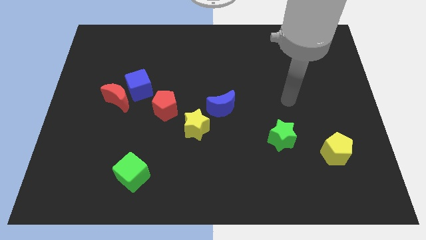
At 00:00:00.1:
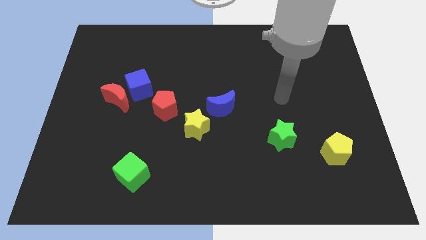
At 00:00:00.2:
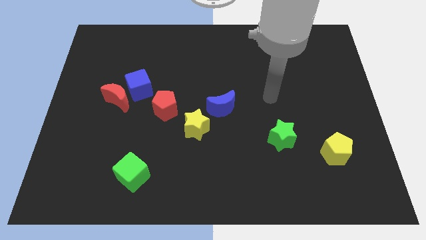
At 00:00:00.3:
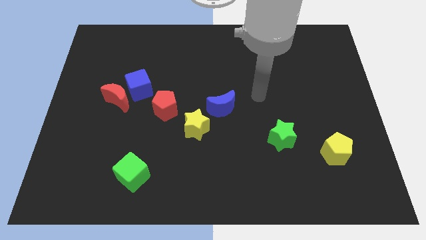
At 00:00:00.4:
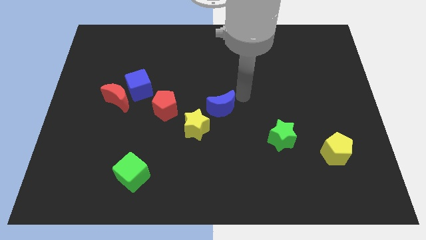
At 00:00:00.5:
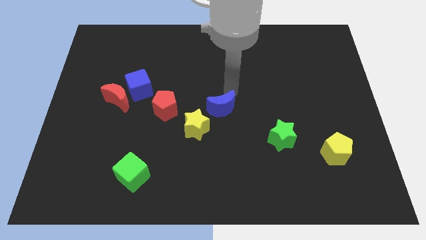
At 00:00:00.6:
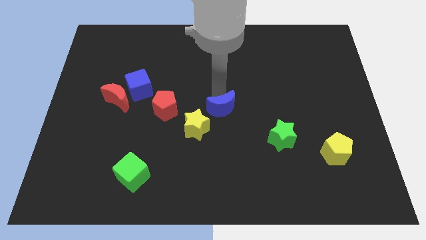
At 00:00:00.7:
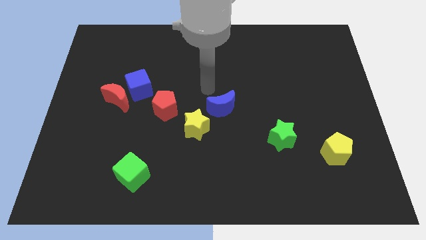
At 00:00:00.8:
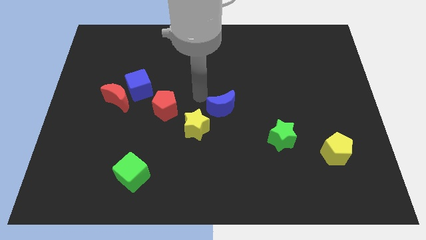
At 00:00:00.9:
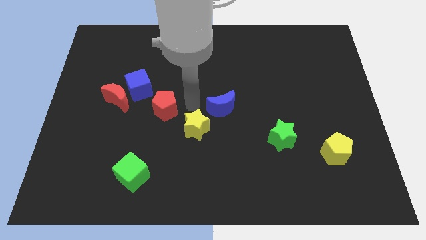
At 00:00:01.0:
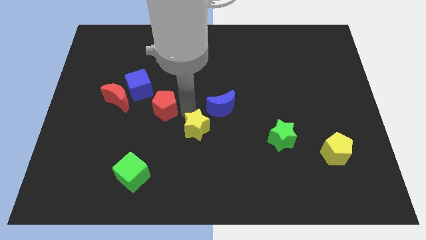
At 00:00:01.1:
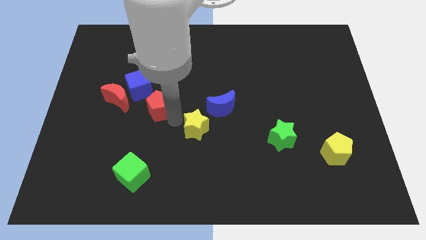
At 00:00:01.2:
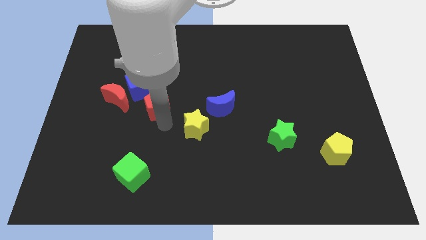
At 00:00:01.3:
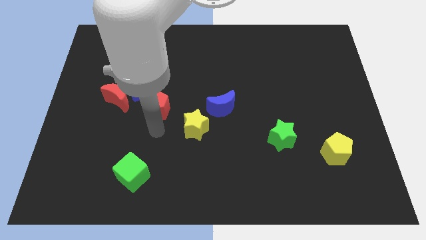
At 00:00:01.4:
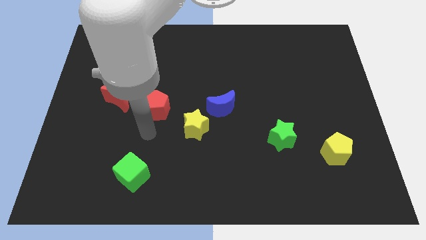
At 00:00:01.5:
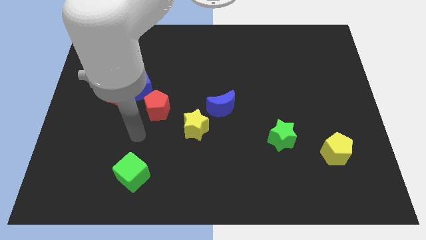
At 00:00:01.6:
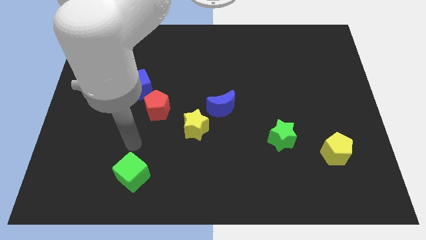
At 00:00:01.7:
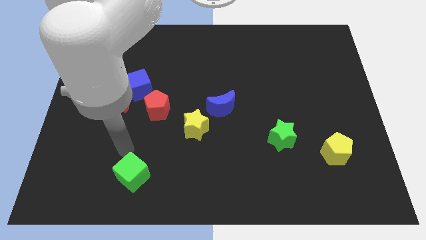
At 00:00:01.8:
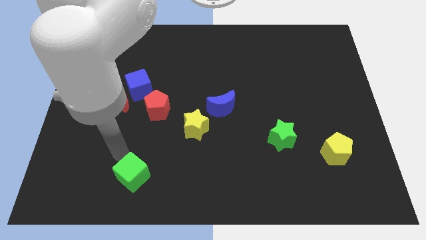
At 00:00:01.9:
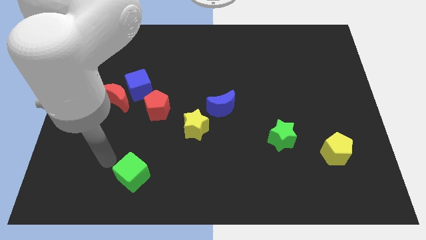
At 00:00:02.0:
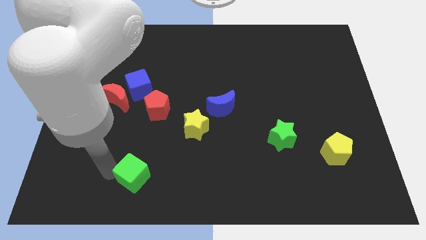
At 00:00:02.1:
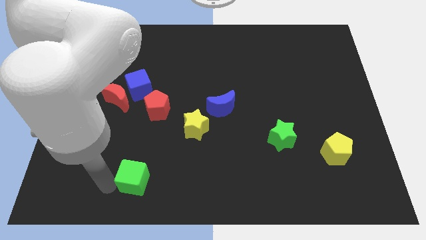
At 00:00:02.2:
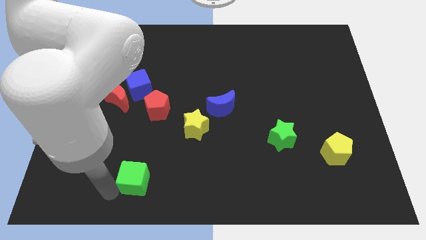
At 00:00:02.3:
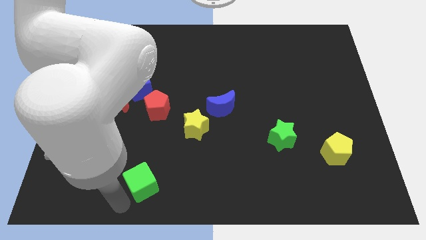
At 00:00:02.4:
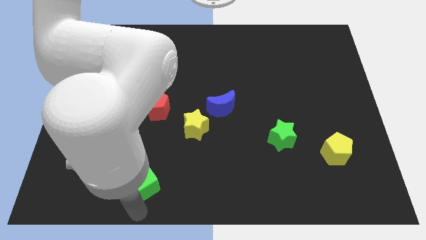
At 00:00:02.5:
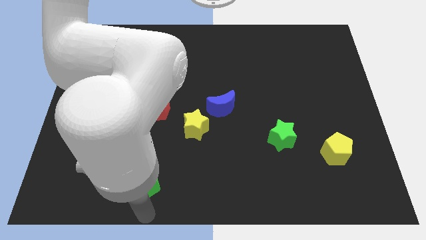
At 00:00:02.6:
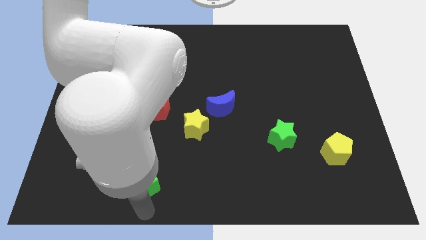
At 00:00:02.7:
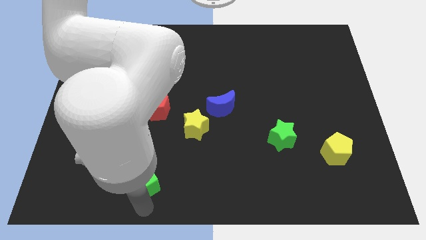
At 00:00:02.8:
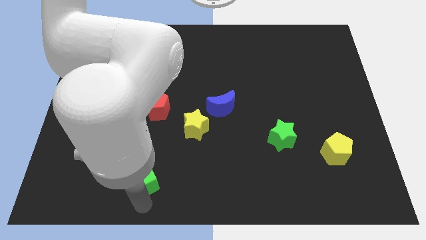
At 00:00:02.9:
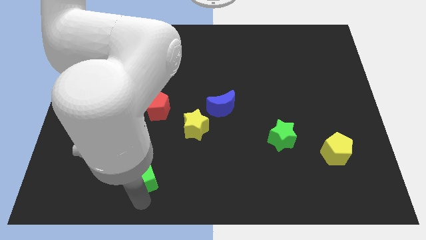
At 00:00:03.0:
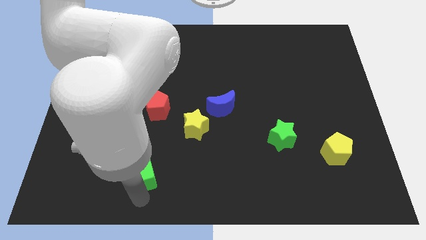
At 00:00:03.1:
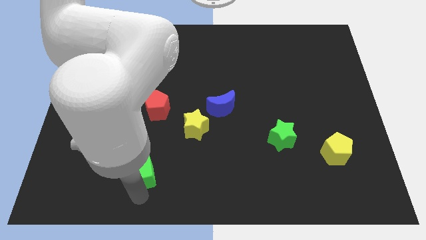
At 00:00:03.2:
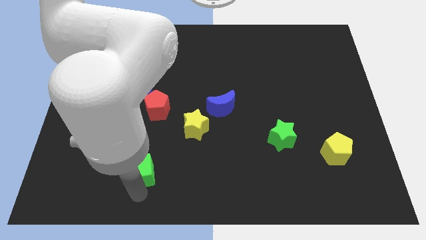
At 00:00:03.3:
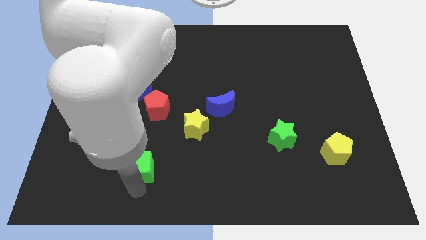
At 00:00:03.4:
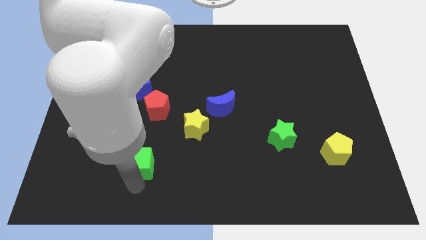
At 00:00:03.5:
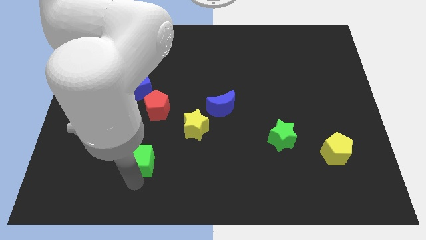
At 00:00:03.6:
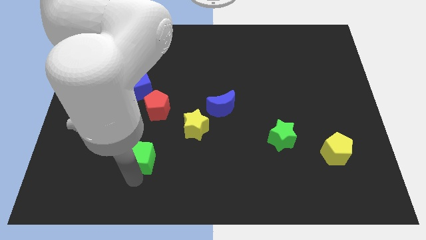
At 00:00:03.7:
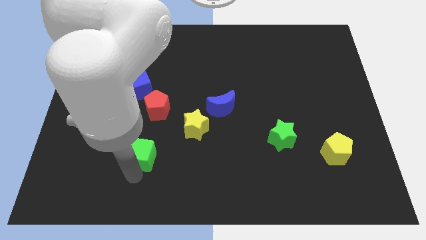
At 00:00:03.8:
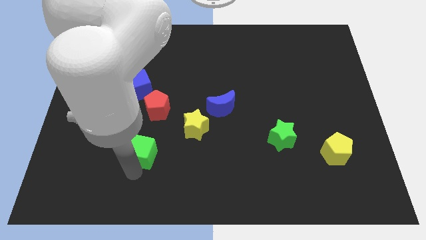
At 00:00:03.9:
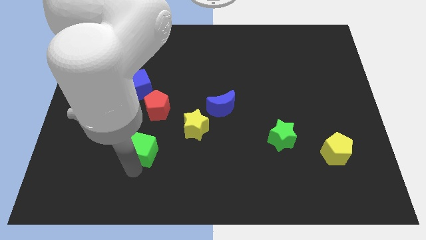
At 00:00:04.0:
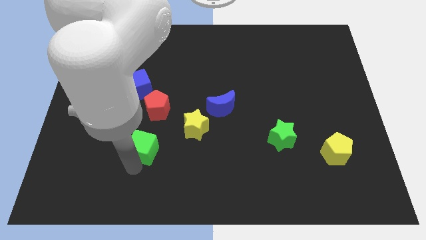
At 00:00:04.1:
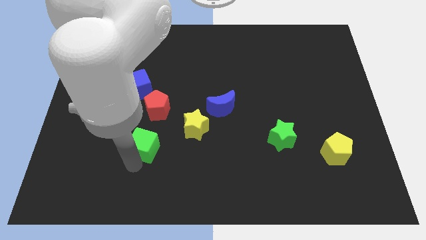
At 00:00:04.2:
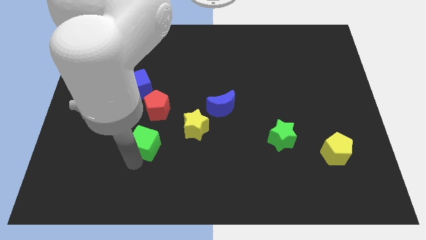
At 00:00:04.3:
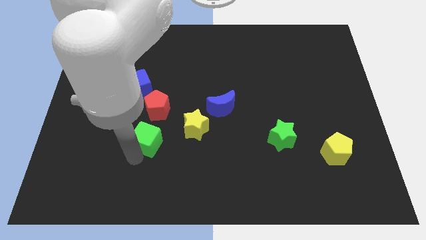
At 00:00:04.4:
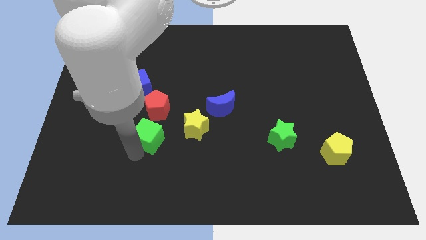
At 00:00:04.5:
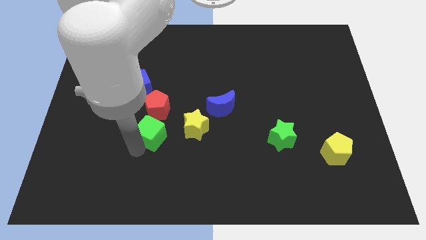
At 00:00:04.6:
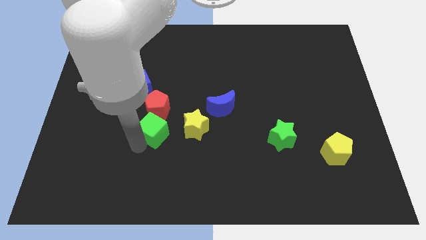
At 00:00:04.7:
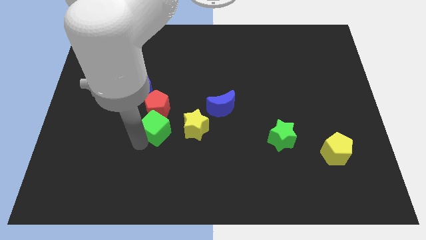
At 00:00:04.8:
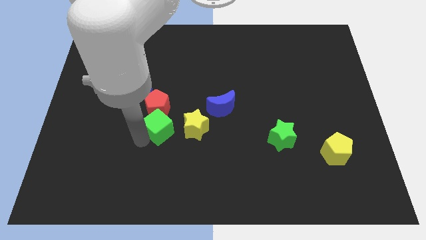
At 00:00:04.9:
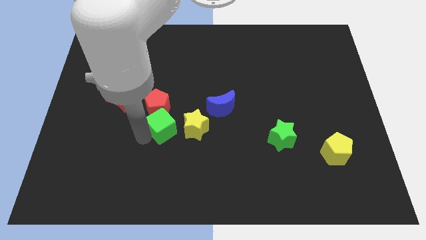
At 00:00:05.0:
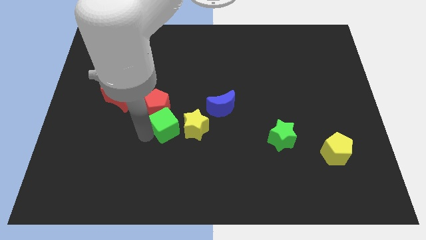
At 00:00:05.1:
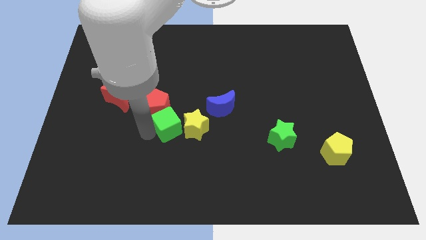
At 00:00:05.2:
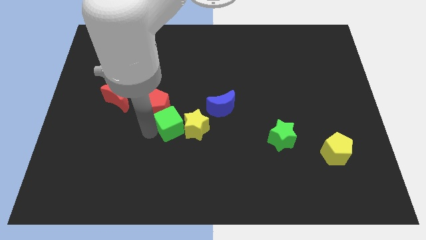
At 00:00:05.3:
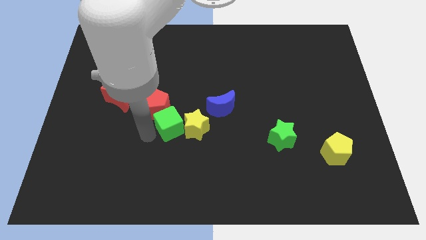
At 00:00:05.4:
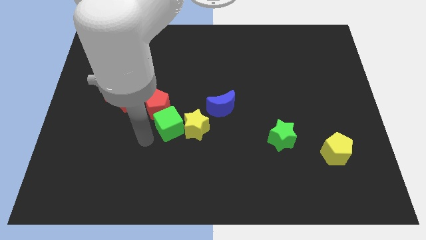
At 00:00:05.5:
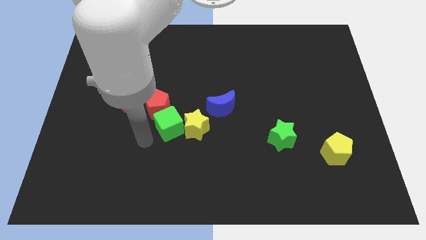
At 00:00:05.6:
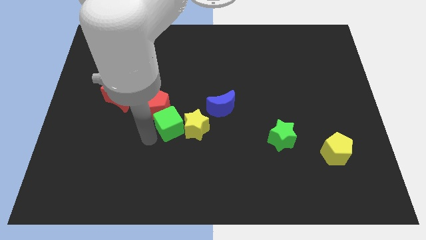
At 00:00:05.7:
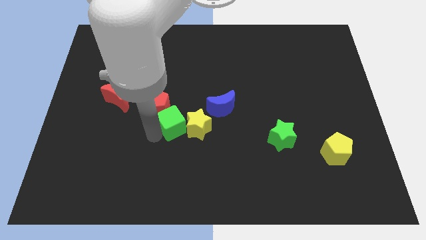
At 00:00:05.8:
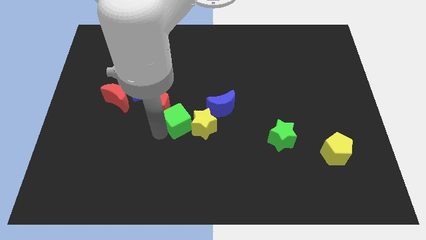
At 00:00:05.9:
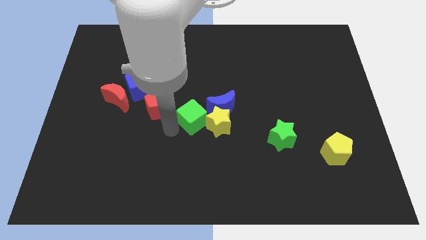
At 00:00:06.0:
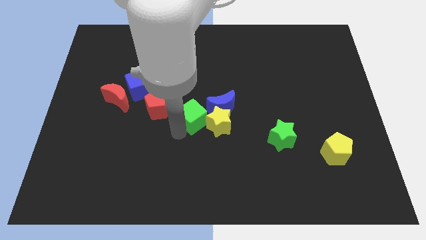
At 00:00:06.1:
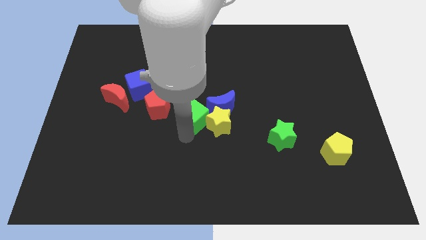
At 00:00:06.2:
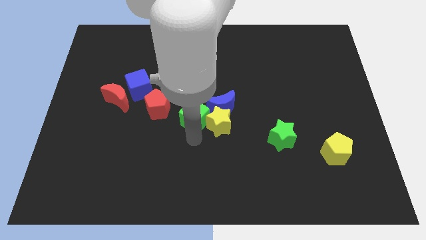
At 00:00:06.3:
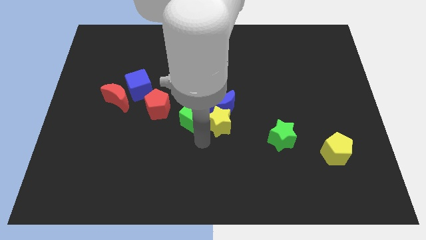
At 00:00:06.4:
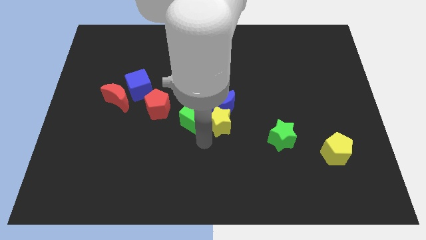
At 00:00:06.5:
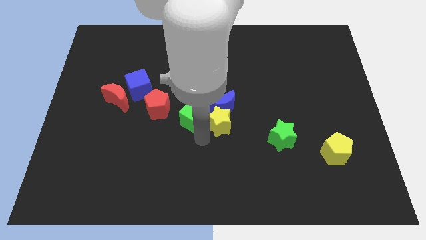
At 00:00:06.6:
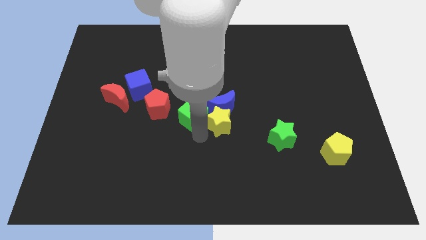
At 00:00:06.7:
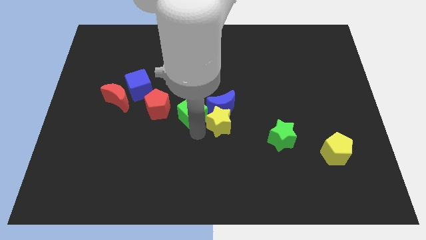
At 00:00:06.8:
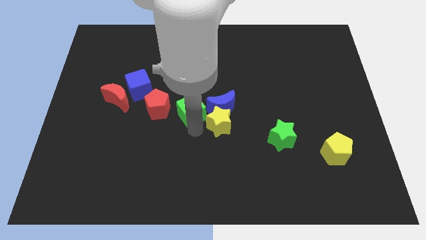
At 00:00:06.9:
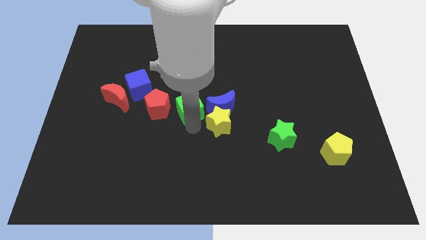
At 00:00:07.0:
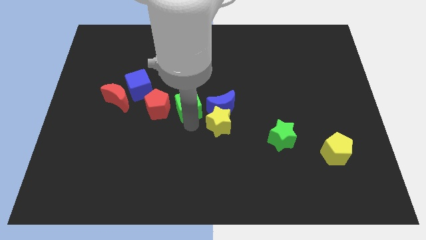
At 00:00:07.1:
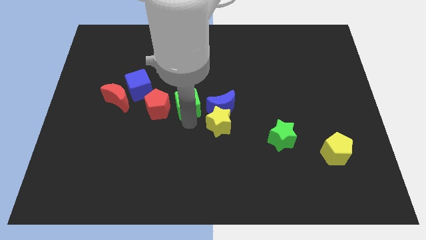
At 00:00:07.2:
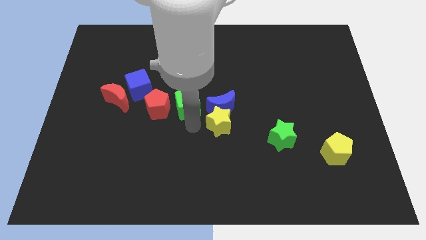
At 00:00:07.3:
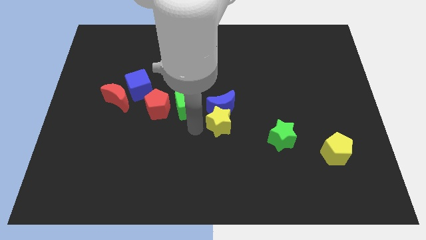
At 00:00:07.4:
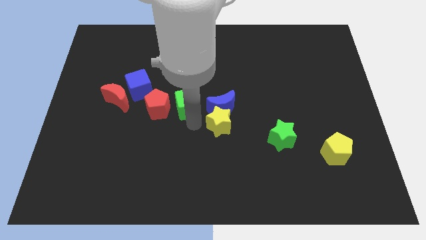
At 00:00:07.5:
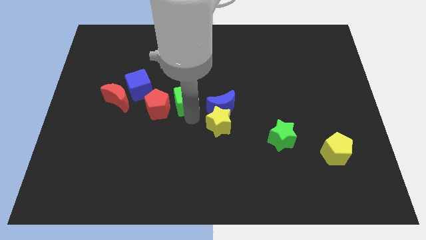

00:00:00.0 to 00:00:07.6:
push the green cube right of the blue cube
